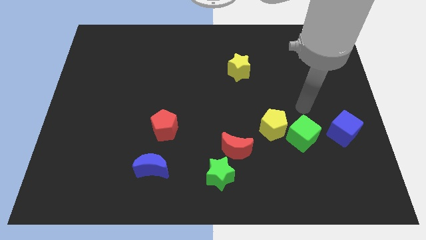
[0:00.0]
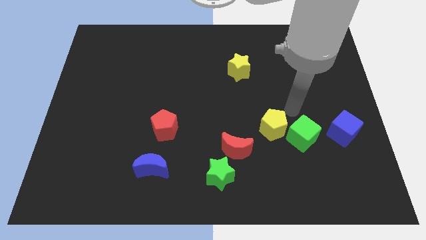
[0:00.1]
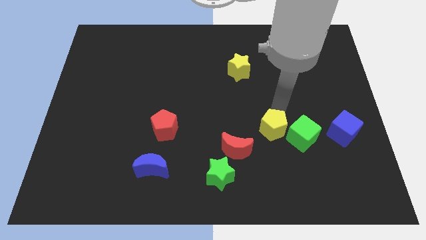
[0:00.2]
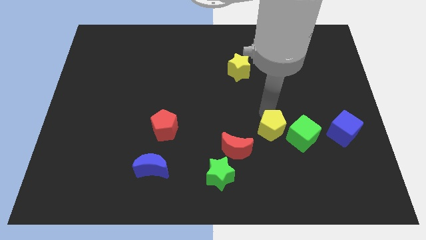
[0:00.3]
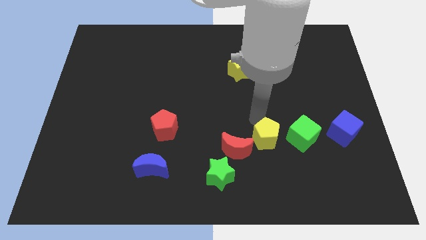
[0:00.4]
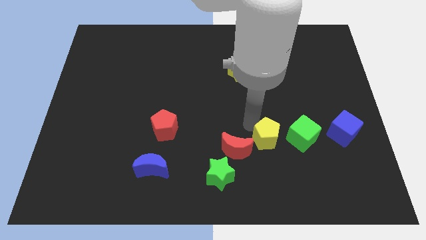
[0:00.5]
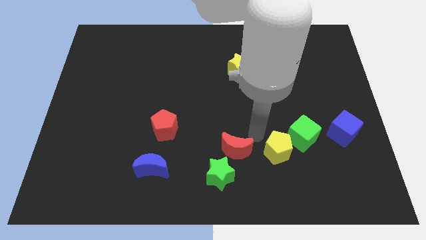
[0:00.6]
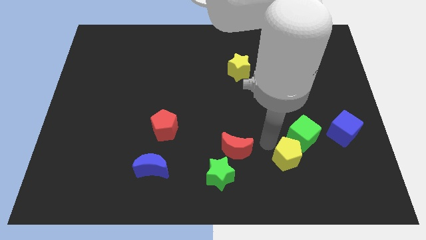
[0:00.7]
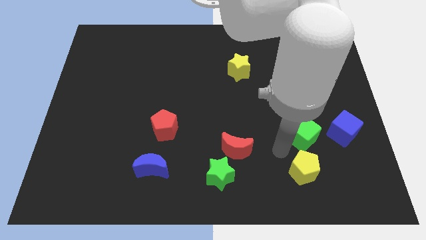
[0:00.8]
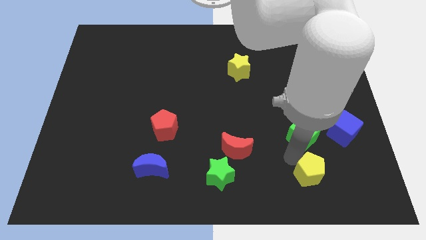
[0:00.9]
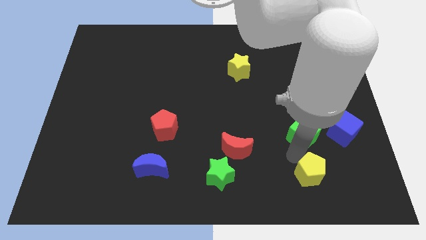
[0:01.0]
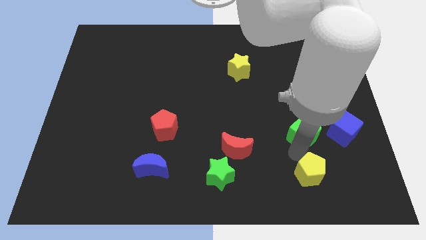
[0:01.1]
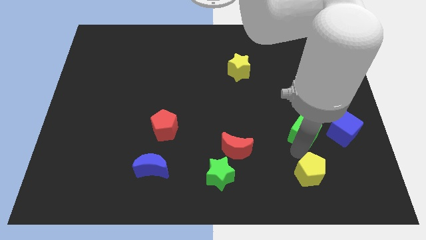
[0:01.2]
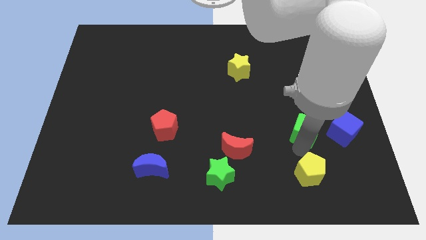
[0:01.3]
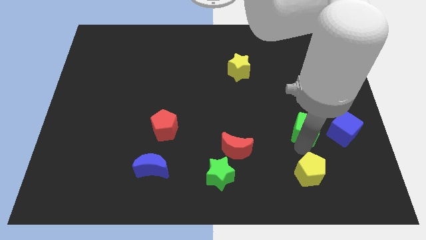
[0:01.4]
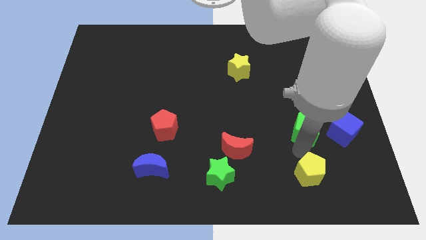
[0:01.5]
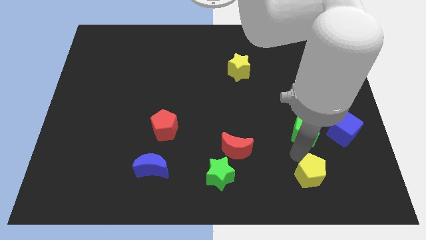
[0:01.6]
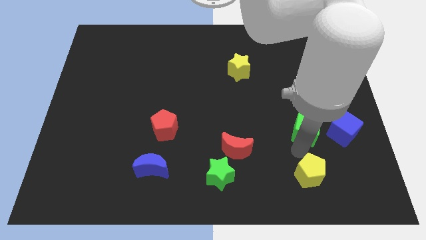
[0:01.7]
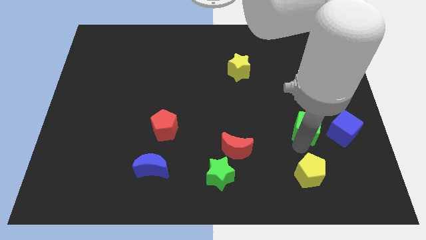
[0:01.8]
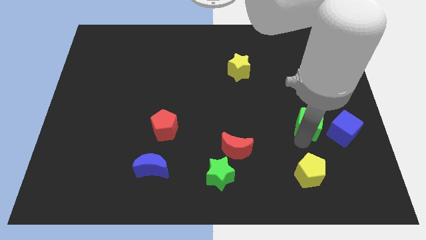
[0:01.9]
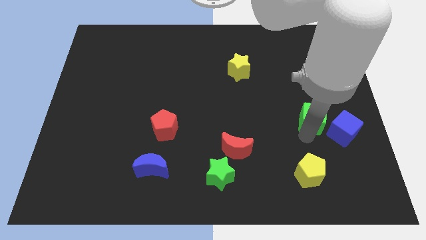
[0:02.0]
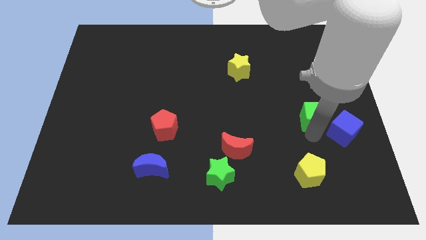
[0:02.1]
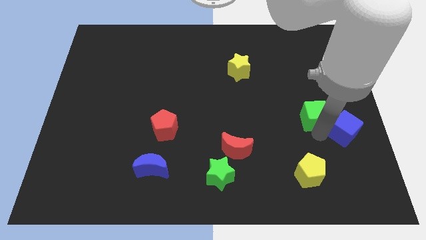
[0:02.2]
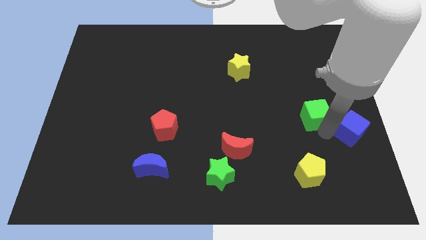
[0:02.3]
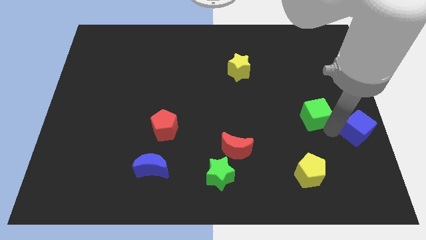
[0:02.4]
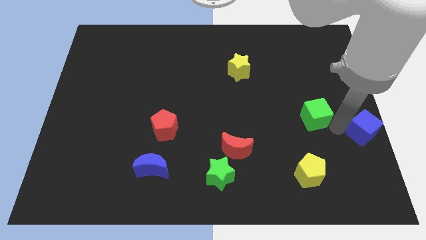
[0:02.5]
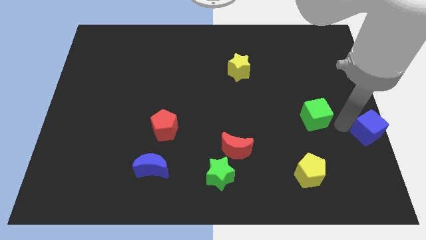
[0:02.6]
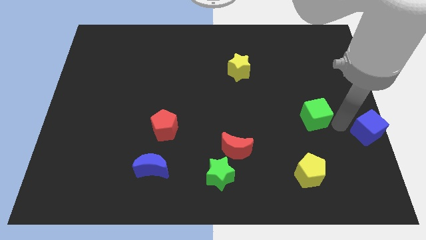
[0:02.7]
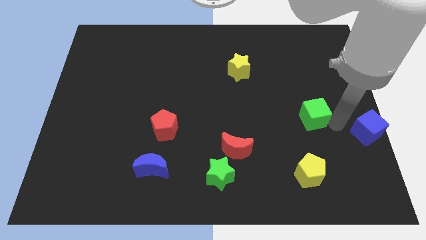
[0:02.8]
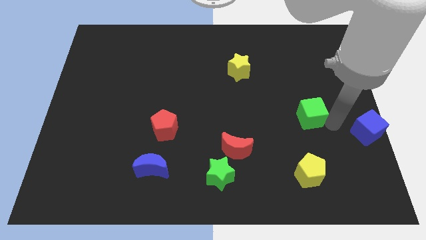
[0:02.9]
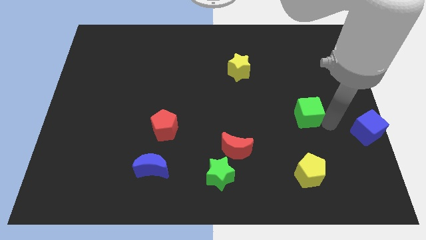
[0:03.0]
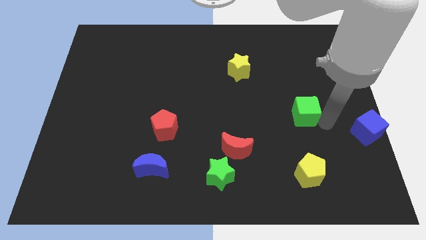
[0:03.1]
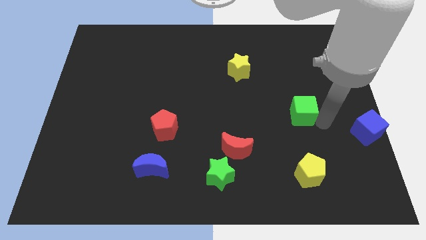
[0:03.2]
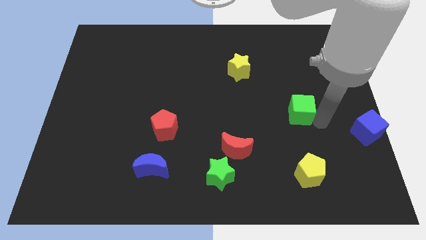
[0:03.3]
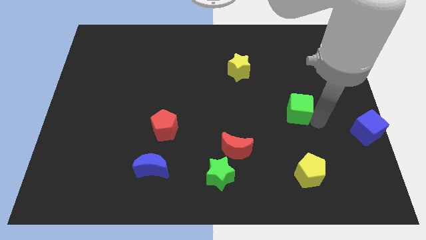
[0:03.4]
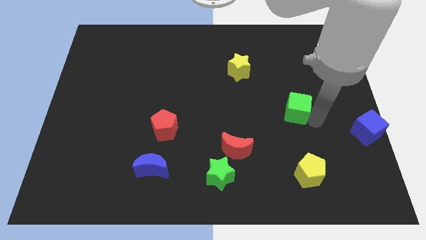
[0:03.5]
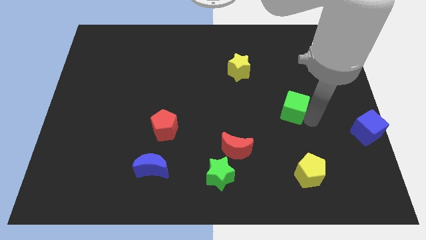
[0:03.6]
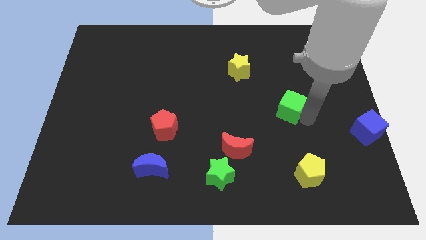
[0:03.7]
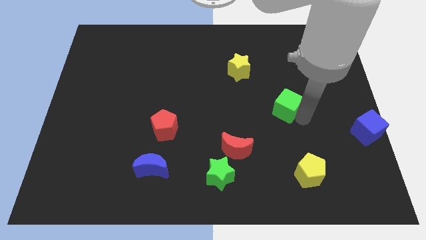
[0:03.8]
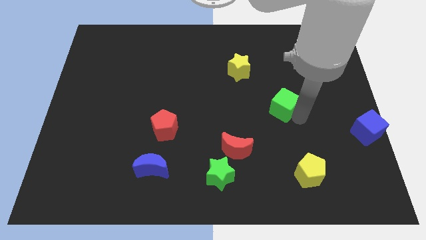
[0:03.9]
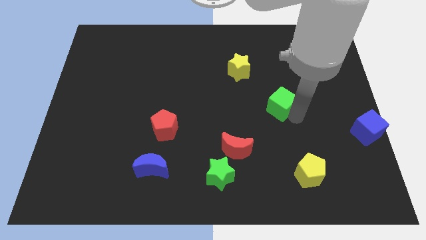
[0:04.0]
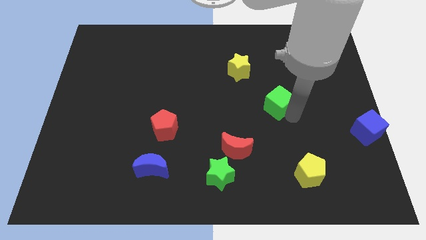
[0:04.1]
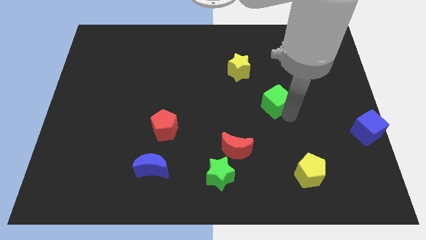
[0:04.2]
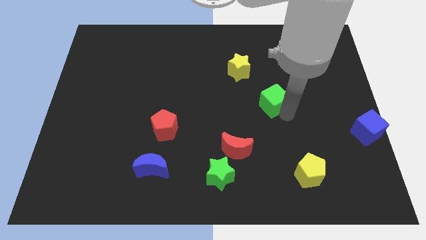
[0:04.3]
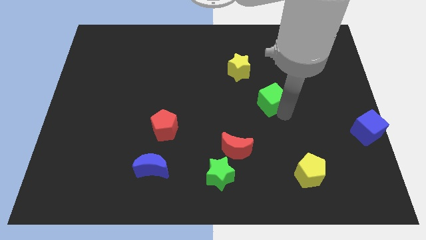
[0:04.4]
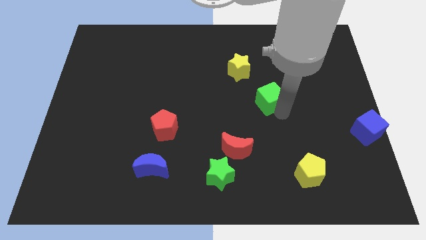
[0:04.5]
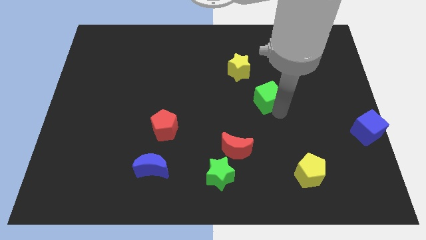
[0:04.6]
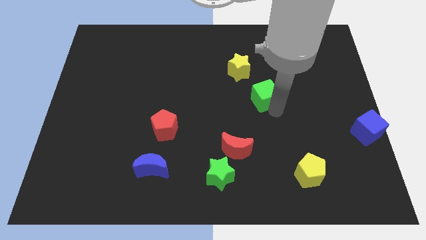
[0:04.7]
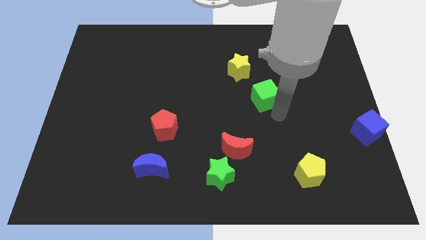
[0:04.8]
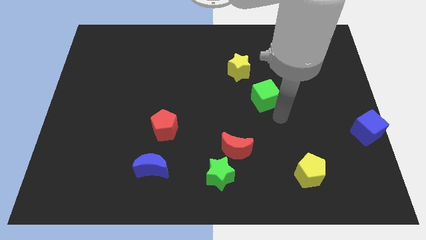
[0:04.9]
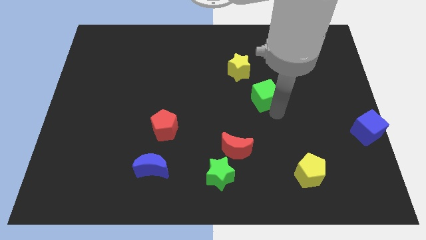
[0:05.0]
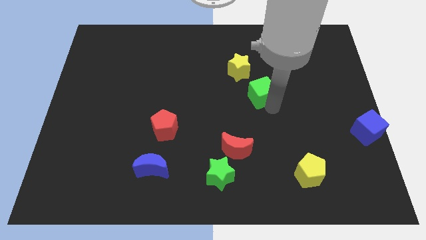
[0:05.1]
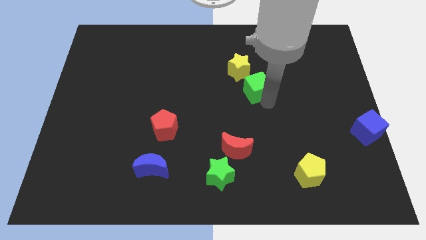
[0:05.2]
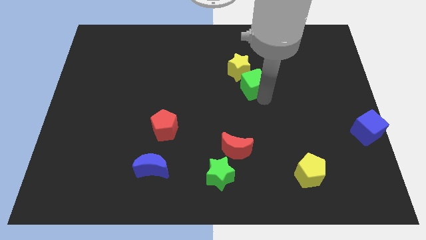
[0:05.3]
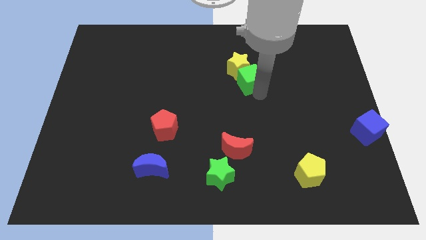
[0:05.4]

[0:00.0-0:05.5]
slide the green cube to the yellow star
